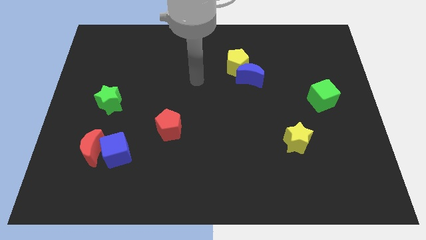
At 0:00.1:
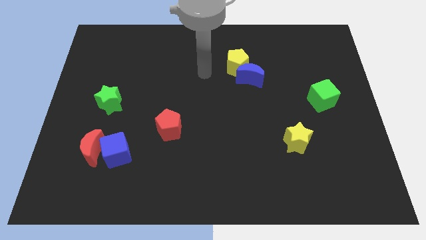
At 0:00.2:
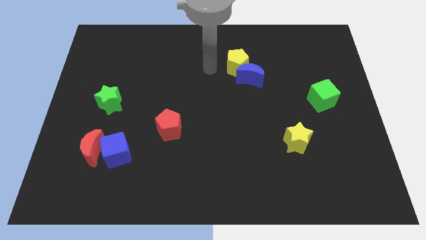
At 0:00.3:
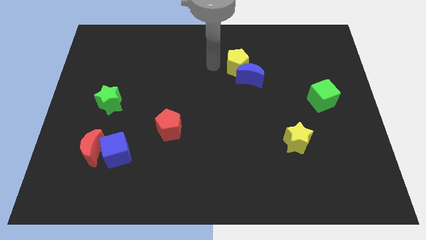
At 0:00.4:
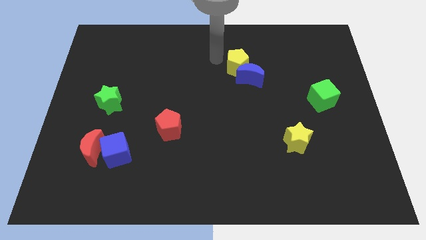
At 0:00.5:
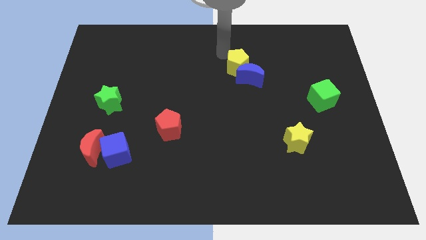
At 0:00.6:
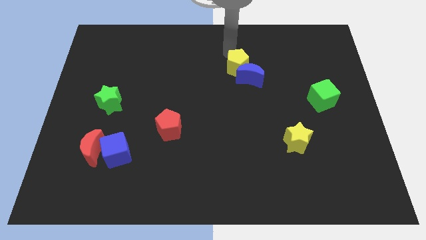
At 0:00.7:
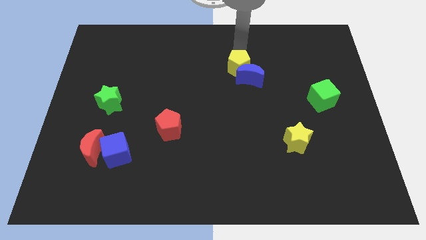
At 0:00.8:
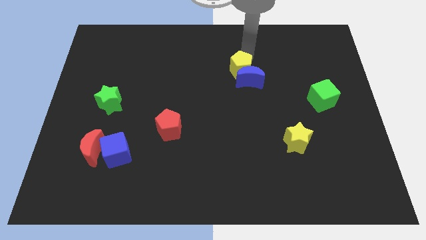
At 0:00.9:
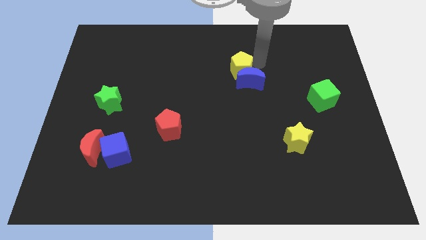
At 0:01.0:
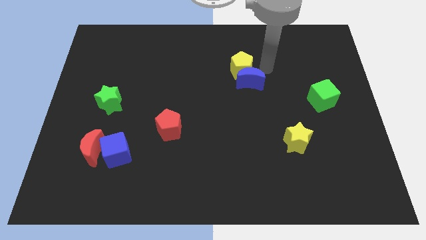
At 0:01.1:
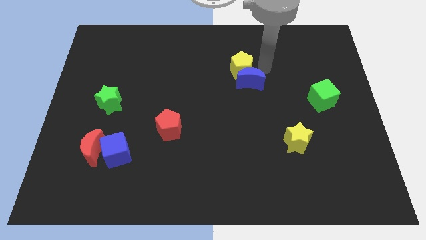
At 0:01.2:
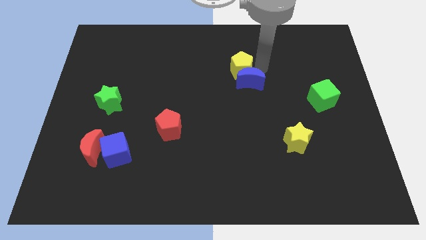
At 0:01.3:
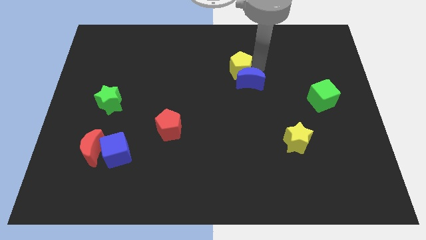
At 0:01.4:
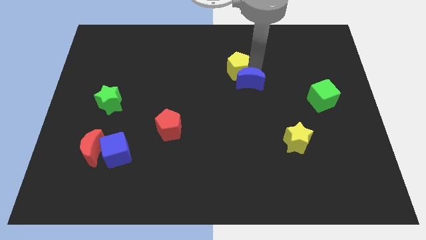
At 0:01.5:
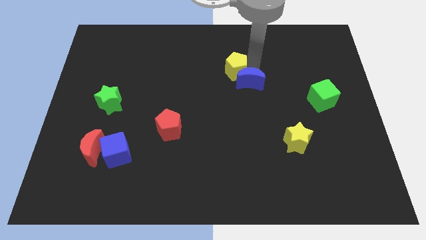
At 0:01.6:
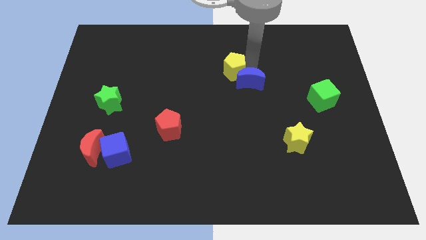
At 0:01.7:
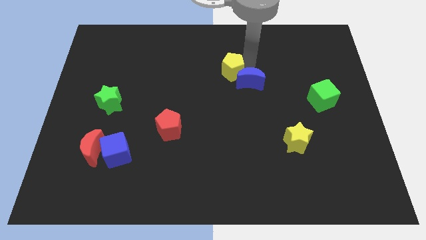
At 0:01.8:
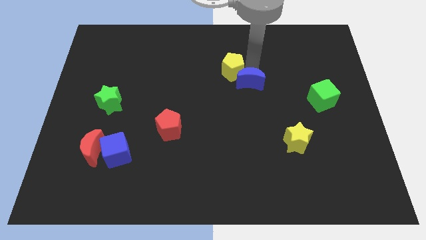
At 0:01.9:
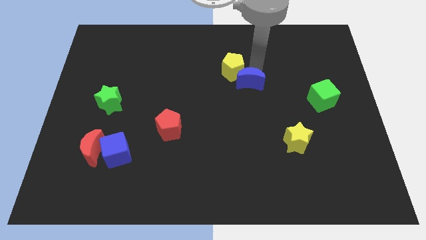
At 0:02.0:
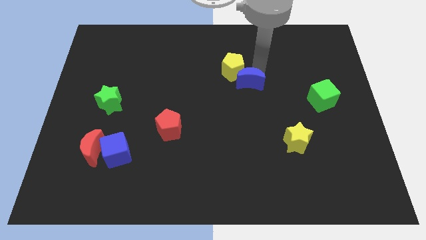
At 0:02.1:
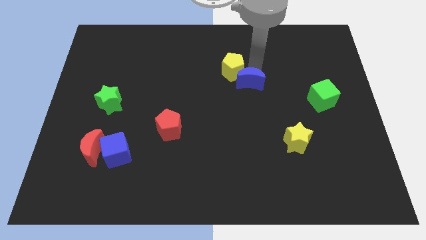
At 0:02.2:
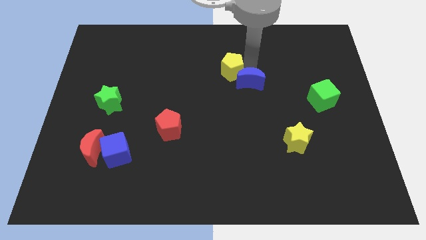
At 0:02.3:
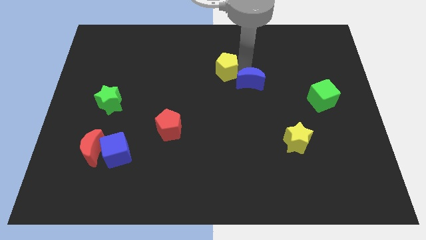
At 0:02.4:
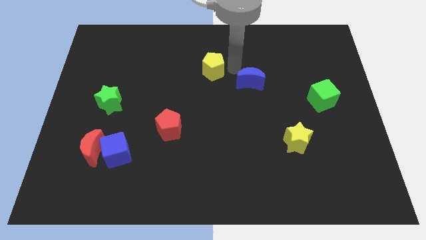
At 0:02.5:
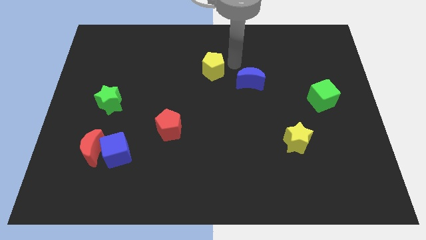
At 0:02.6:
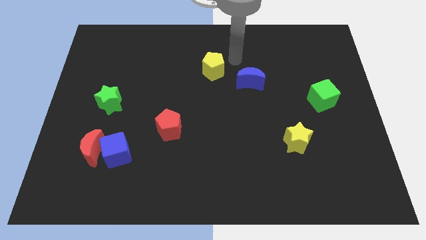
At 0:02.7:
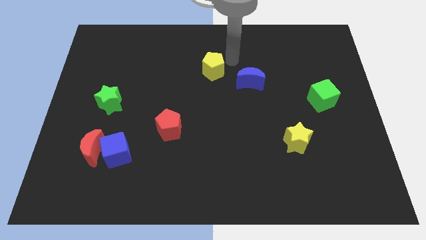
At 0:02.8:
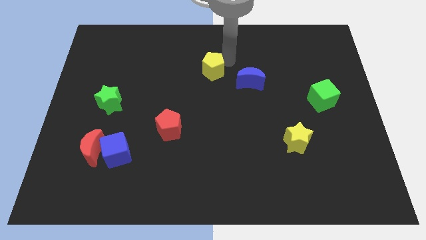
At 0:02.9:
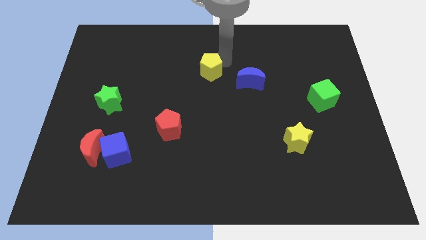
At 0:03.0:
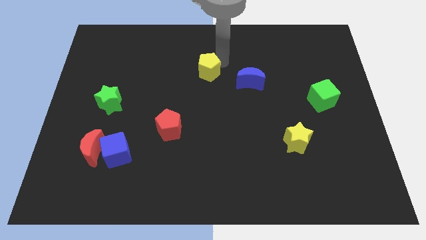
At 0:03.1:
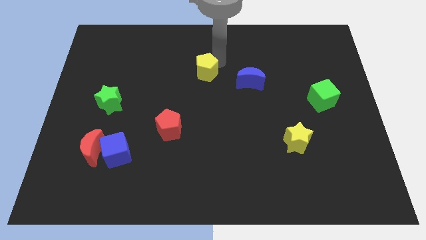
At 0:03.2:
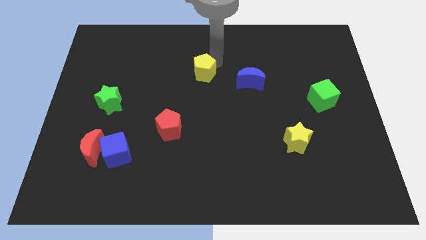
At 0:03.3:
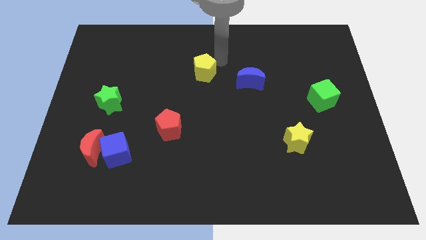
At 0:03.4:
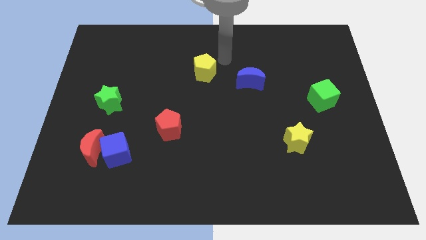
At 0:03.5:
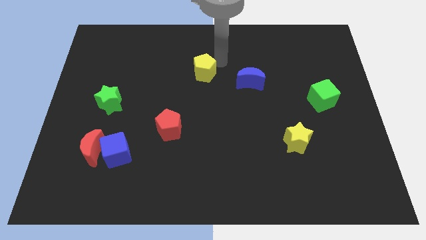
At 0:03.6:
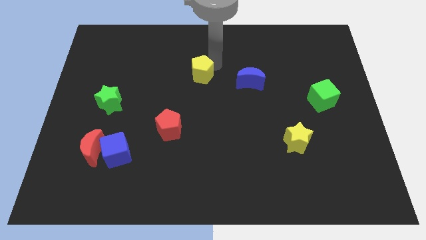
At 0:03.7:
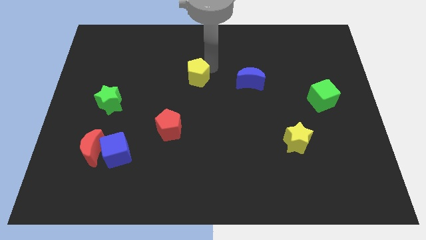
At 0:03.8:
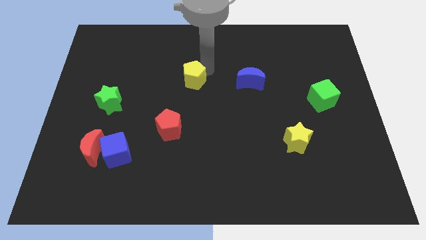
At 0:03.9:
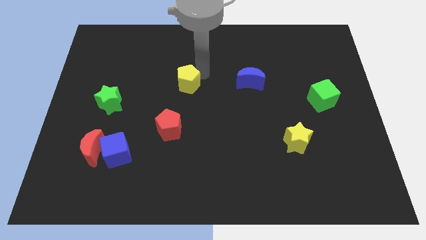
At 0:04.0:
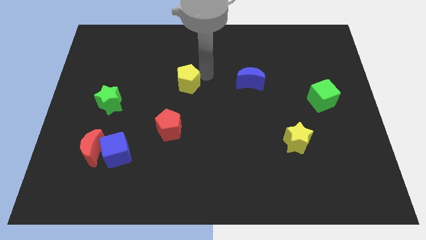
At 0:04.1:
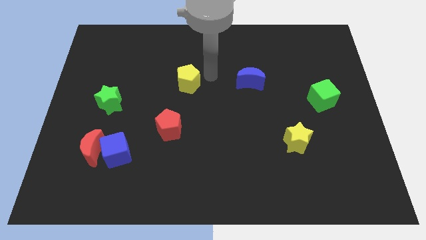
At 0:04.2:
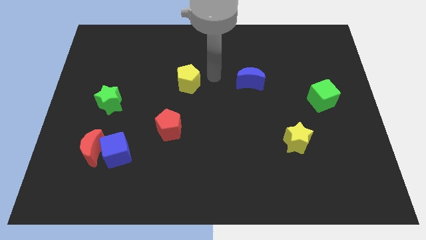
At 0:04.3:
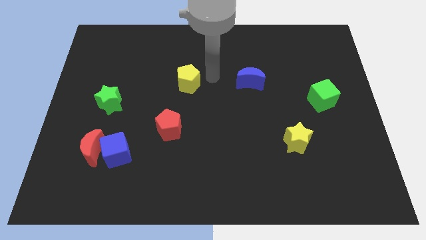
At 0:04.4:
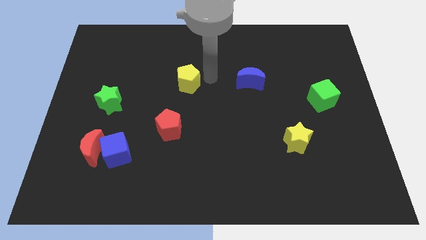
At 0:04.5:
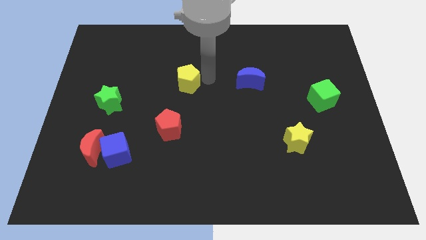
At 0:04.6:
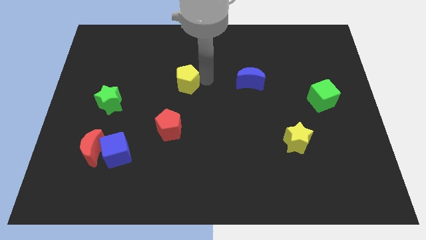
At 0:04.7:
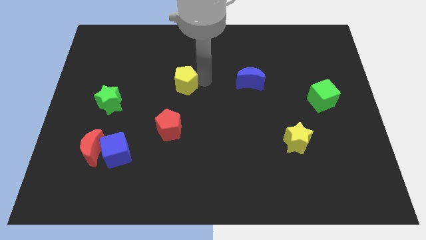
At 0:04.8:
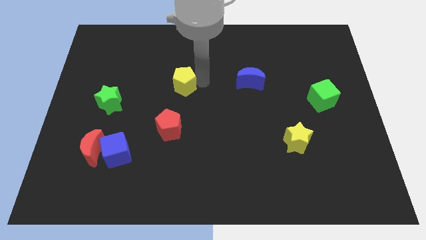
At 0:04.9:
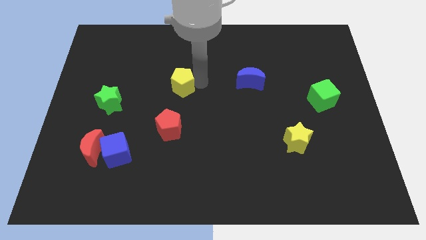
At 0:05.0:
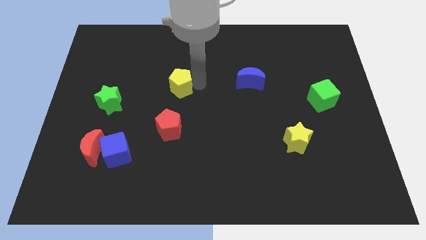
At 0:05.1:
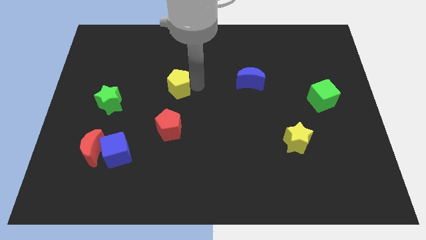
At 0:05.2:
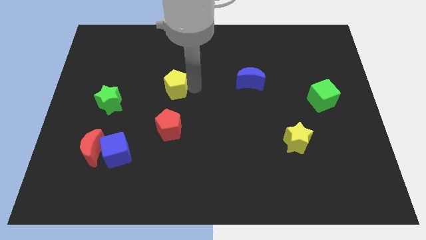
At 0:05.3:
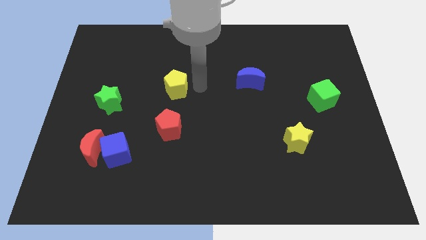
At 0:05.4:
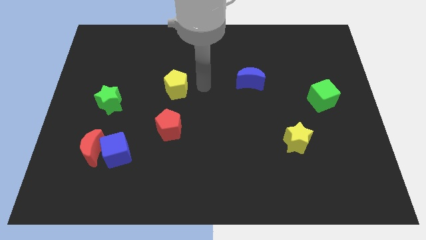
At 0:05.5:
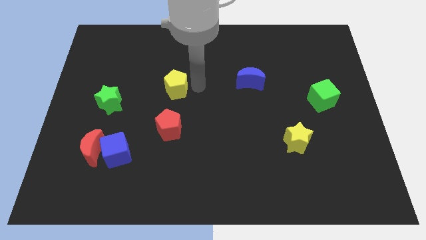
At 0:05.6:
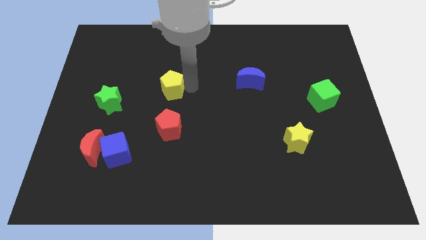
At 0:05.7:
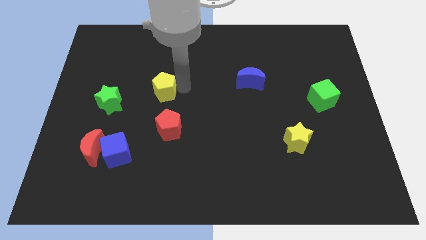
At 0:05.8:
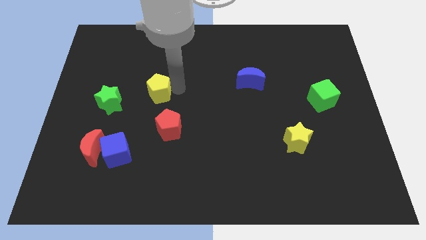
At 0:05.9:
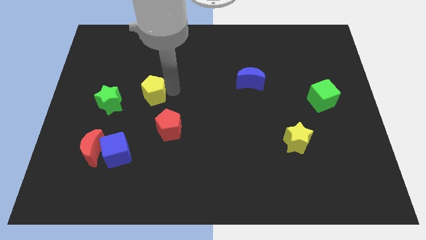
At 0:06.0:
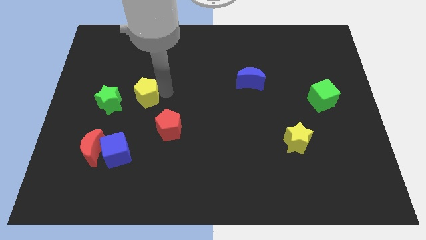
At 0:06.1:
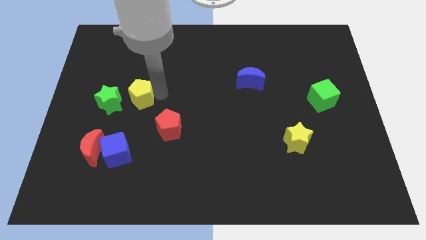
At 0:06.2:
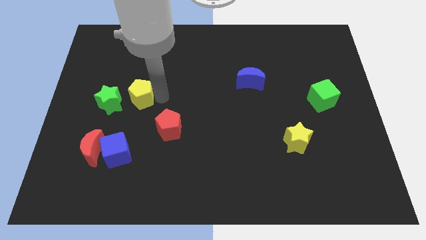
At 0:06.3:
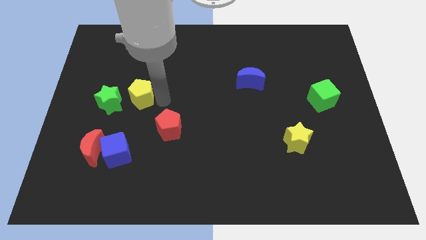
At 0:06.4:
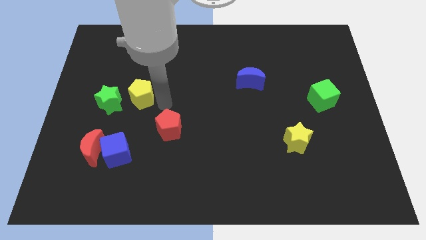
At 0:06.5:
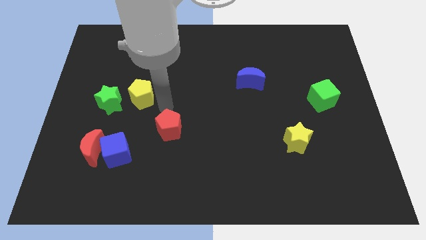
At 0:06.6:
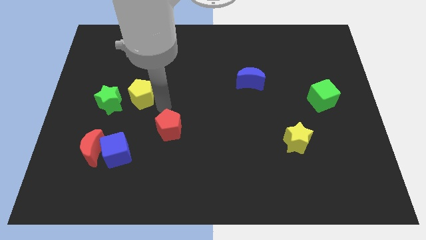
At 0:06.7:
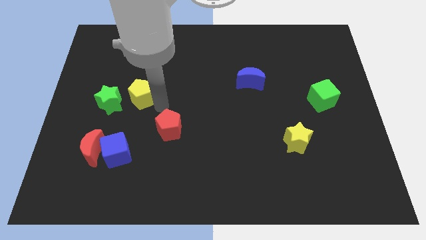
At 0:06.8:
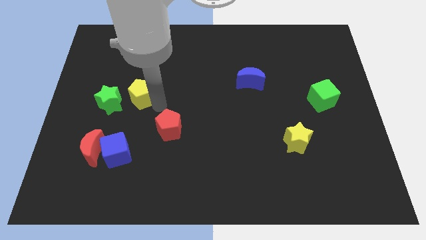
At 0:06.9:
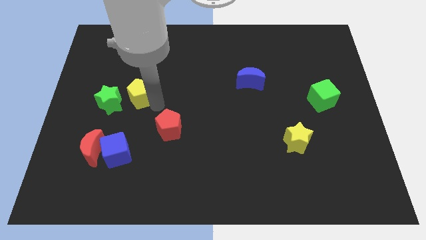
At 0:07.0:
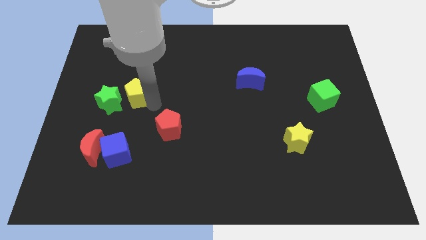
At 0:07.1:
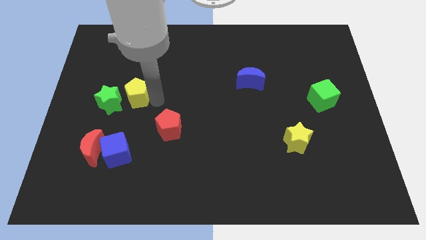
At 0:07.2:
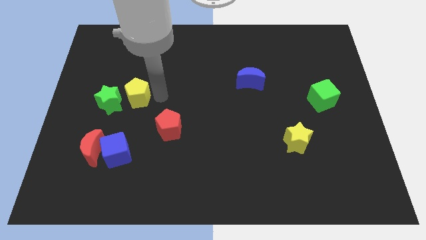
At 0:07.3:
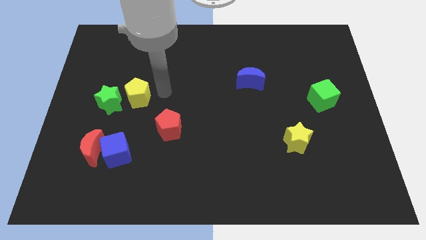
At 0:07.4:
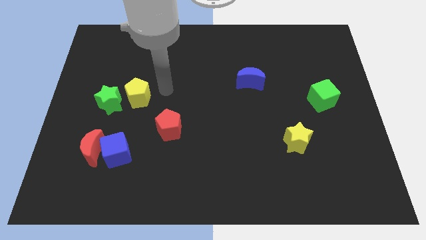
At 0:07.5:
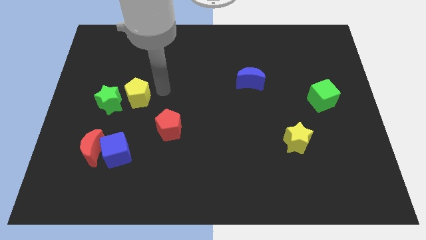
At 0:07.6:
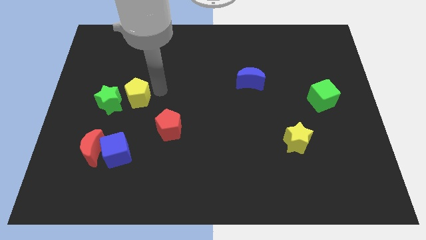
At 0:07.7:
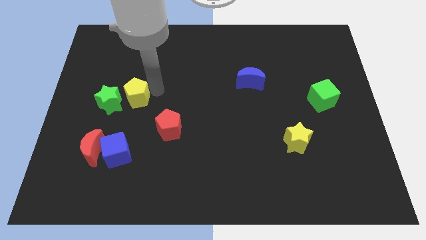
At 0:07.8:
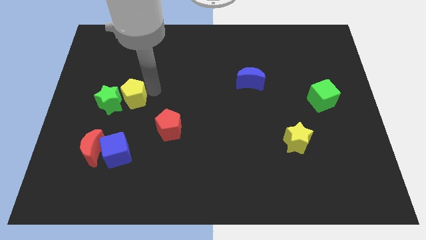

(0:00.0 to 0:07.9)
push the yellow pentagon next to the green star
